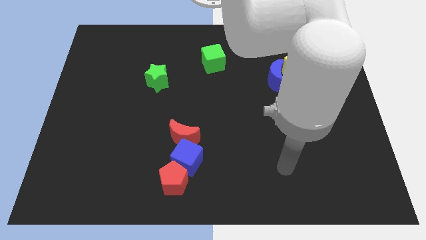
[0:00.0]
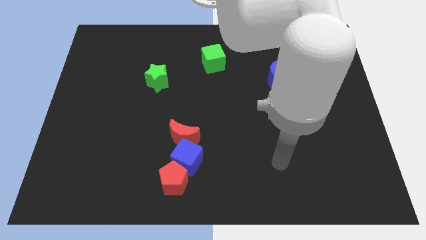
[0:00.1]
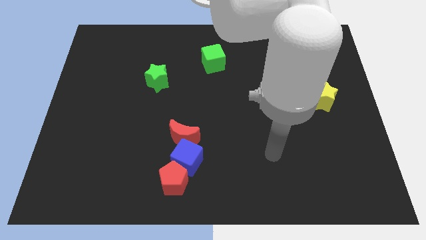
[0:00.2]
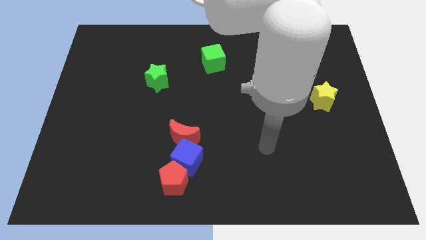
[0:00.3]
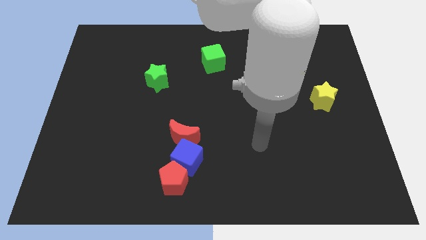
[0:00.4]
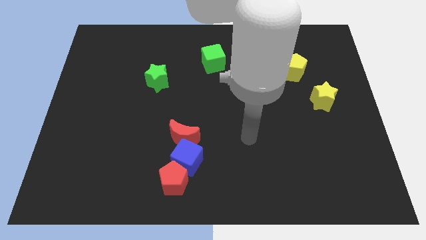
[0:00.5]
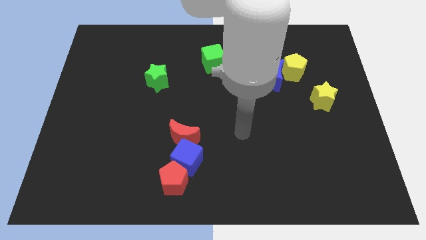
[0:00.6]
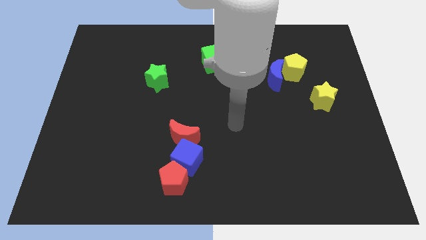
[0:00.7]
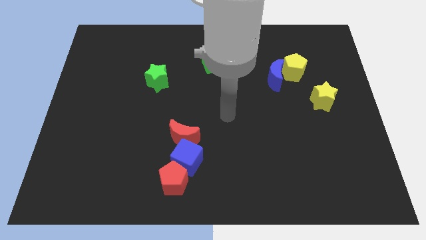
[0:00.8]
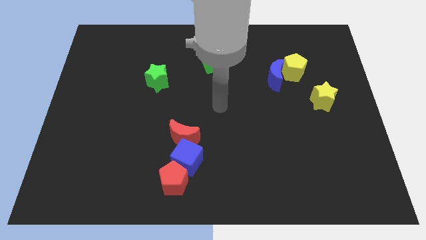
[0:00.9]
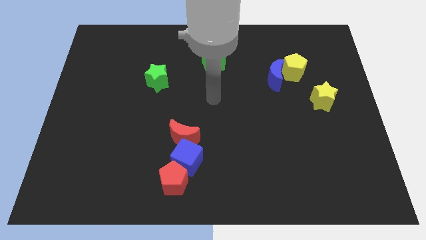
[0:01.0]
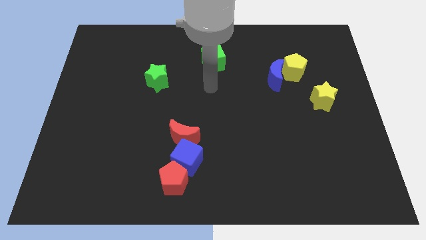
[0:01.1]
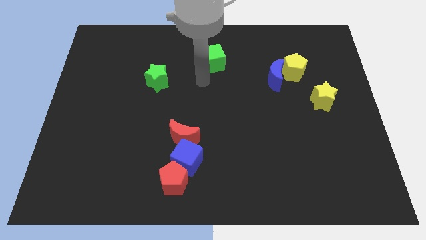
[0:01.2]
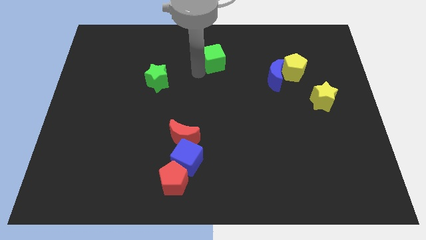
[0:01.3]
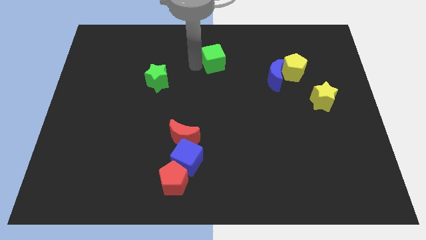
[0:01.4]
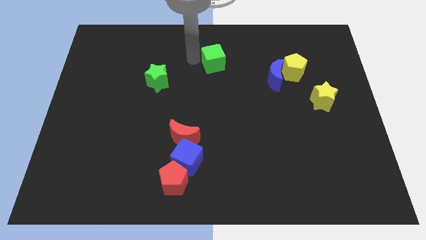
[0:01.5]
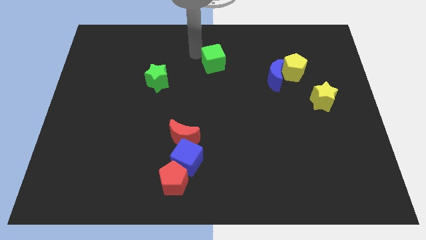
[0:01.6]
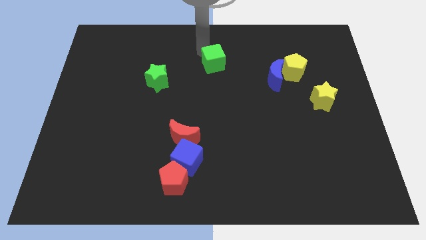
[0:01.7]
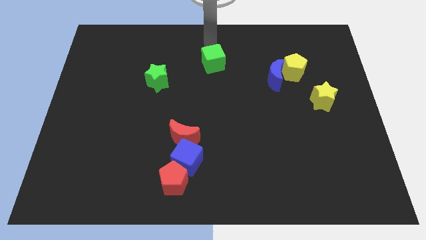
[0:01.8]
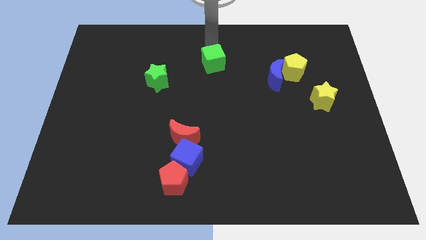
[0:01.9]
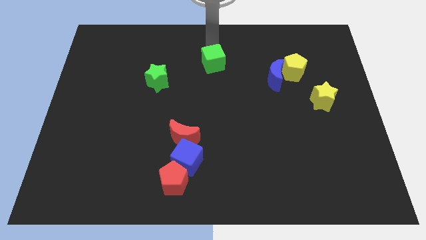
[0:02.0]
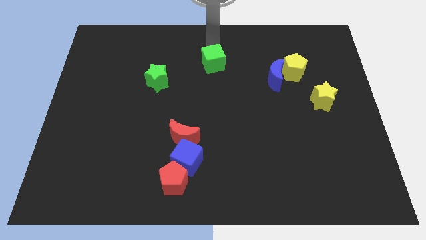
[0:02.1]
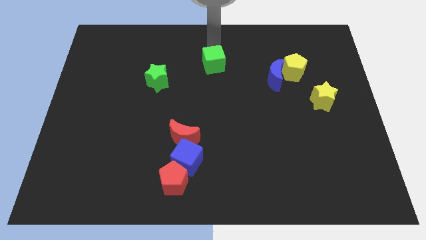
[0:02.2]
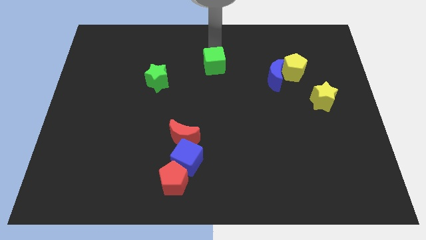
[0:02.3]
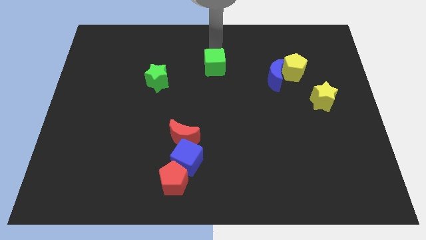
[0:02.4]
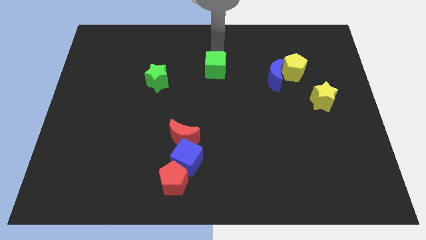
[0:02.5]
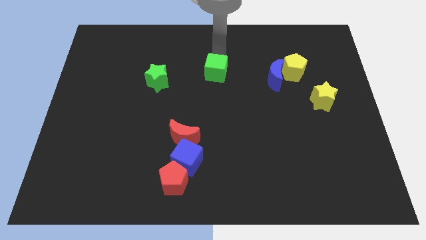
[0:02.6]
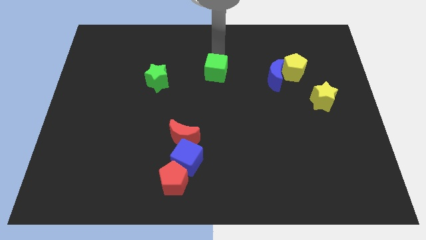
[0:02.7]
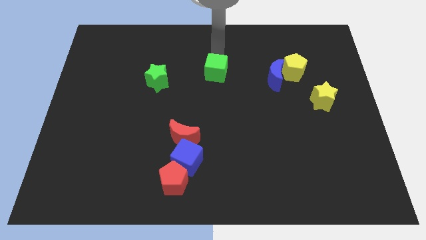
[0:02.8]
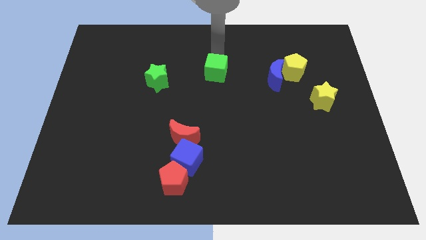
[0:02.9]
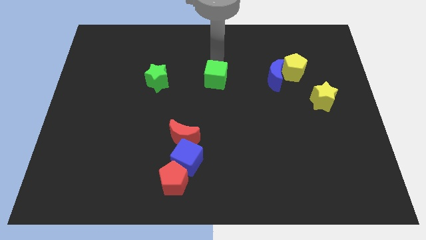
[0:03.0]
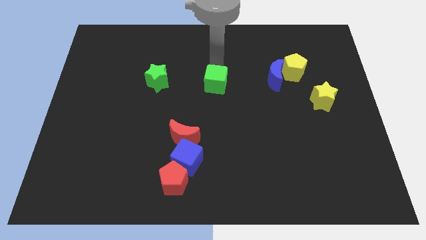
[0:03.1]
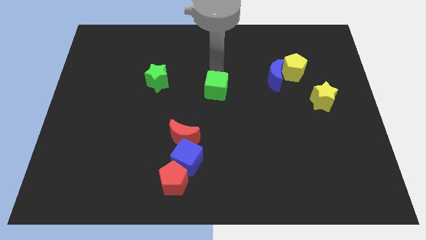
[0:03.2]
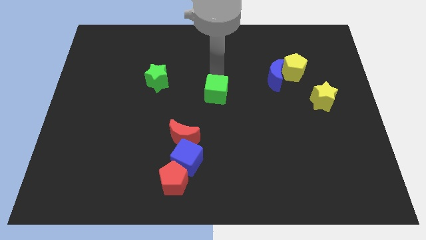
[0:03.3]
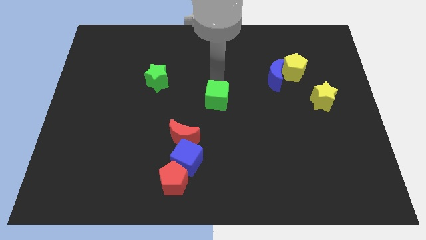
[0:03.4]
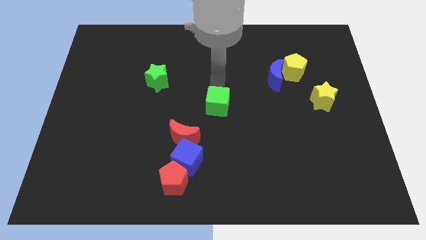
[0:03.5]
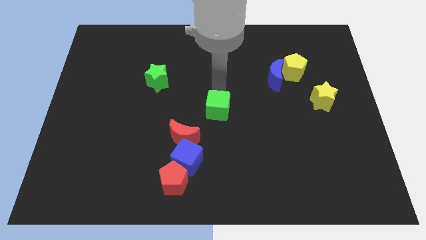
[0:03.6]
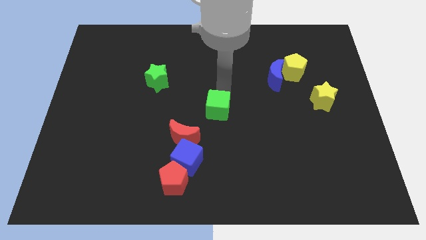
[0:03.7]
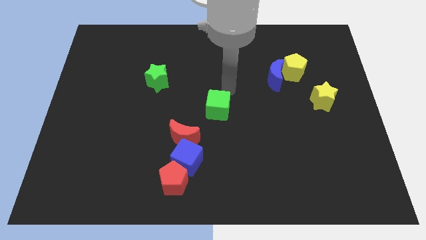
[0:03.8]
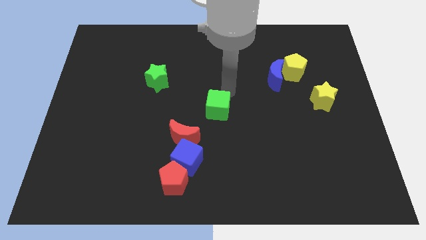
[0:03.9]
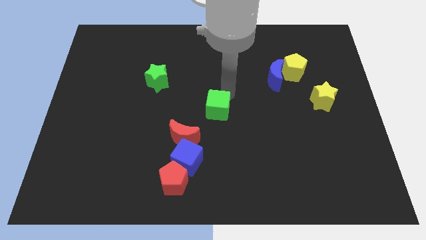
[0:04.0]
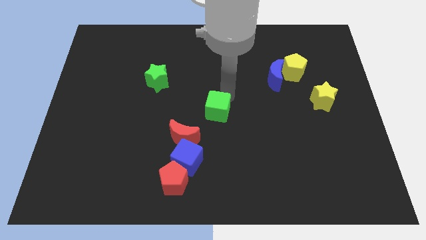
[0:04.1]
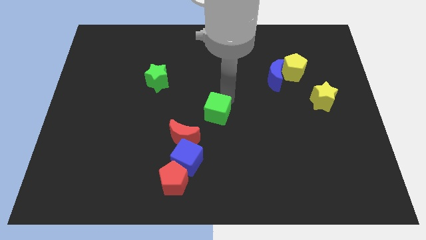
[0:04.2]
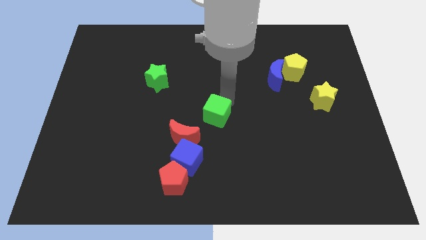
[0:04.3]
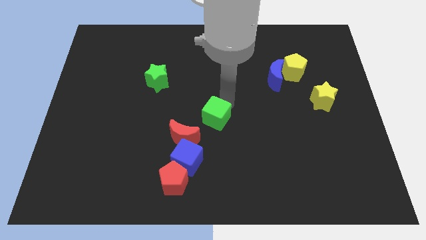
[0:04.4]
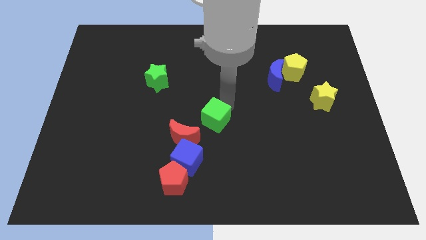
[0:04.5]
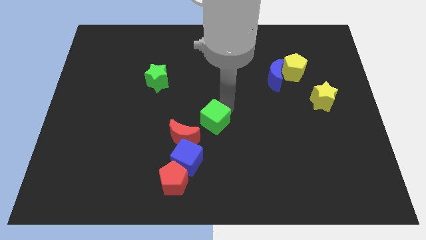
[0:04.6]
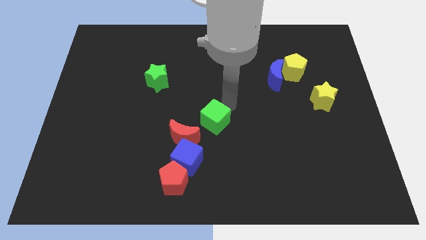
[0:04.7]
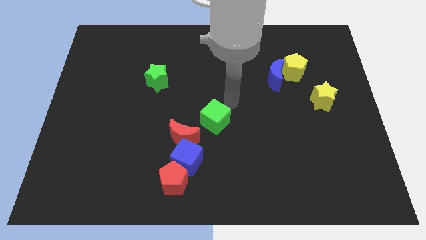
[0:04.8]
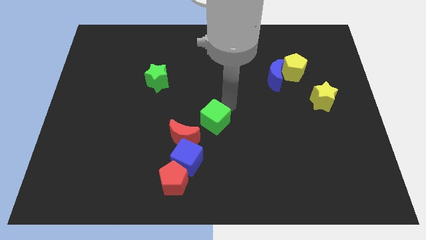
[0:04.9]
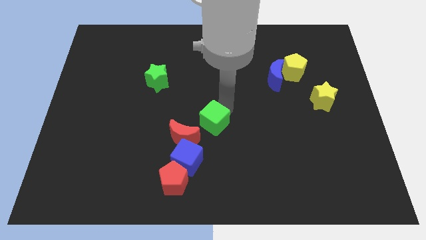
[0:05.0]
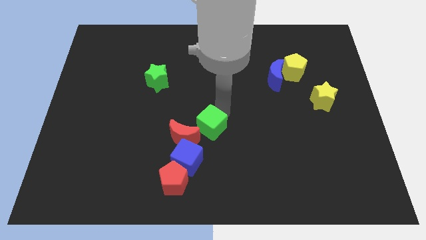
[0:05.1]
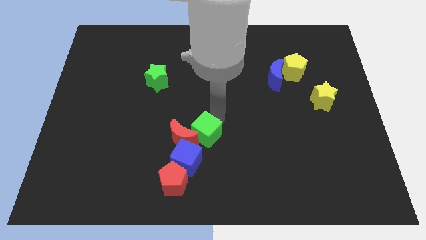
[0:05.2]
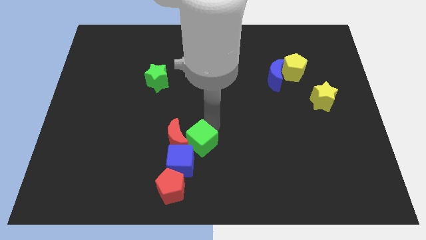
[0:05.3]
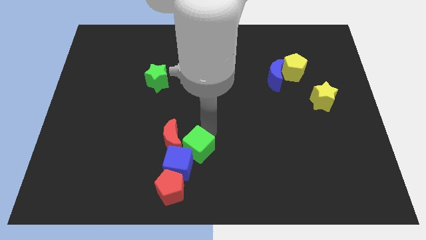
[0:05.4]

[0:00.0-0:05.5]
slide the green cube to the blue cube

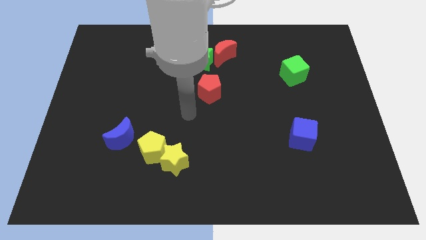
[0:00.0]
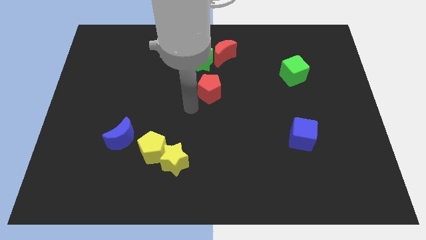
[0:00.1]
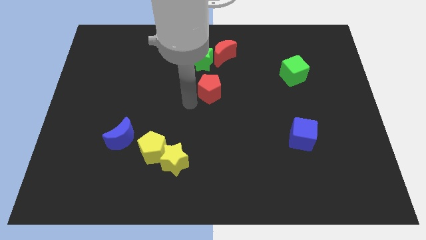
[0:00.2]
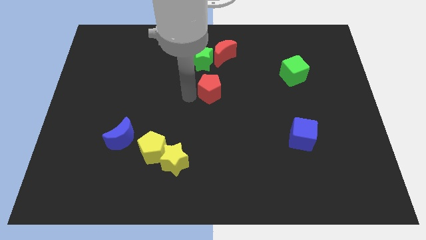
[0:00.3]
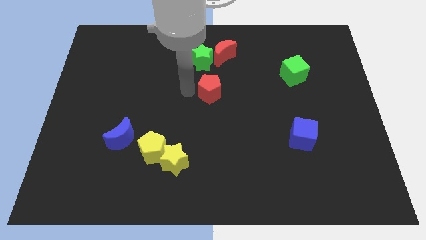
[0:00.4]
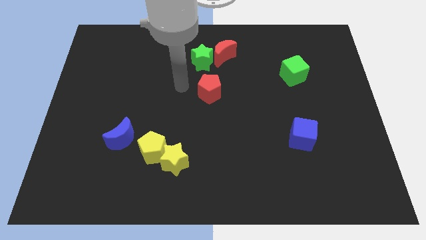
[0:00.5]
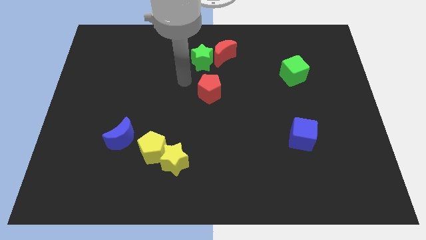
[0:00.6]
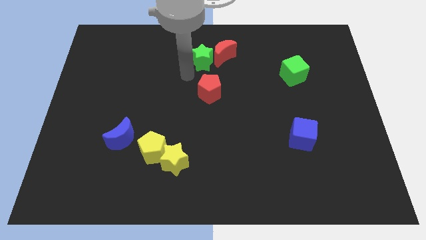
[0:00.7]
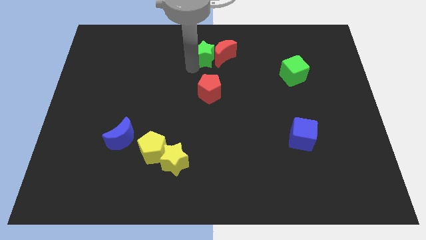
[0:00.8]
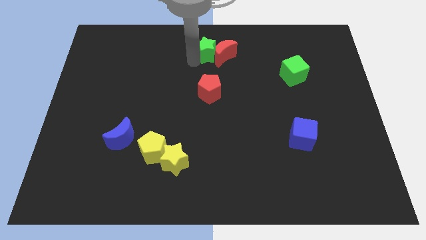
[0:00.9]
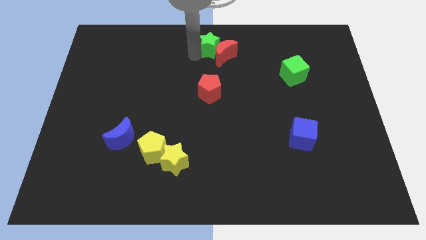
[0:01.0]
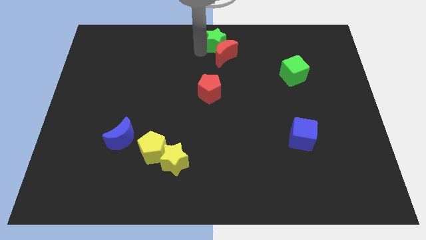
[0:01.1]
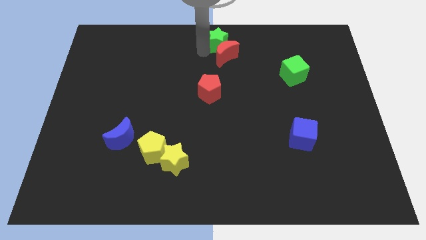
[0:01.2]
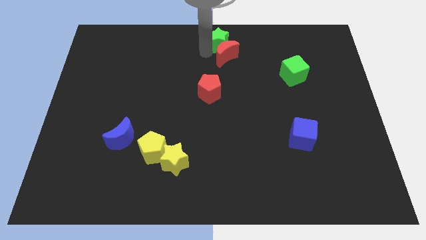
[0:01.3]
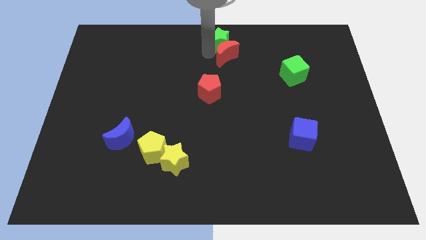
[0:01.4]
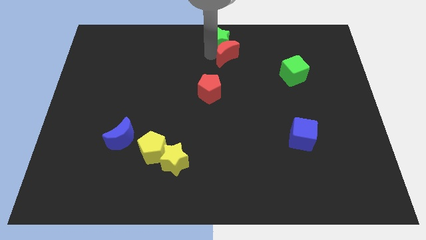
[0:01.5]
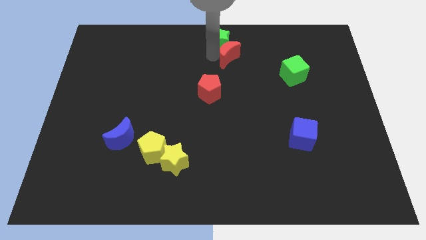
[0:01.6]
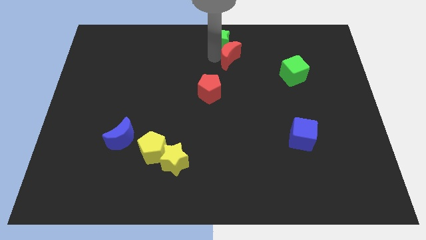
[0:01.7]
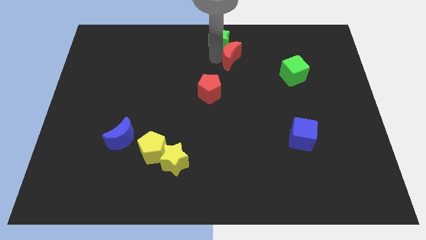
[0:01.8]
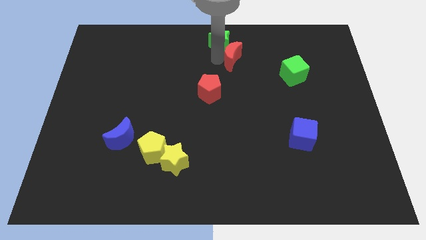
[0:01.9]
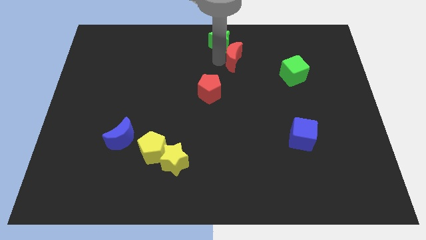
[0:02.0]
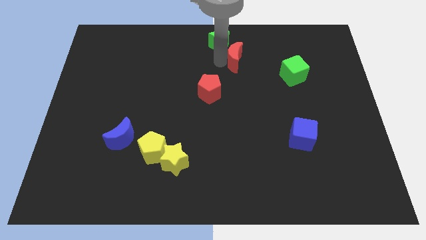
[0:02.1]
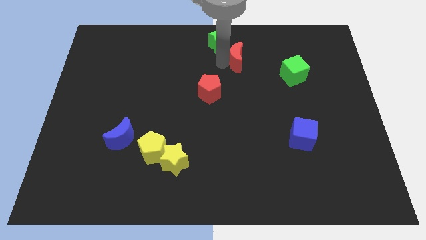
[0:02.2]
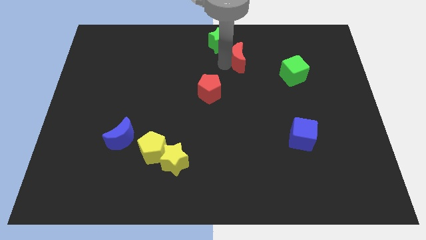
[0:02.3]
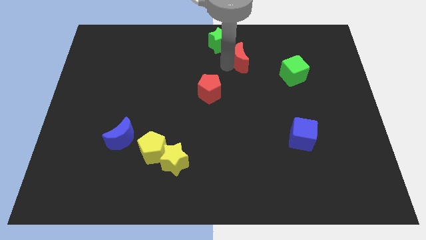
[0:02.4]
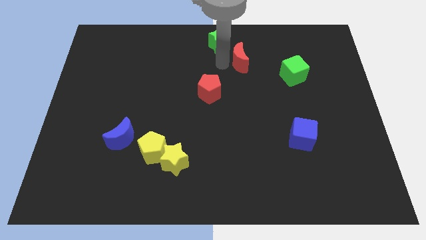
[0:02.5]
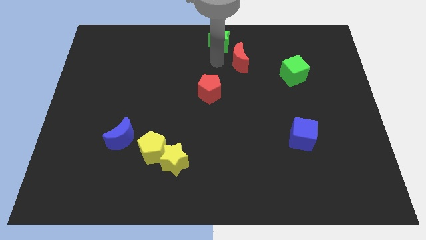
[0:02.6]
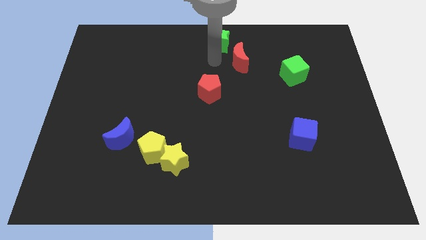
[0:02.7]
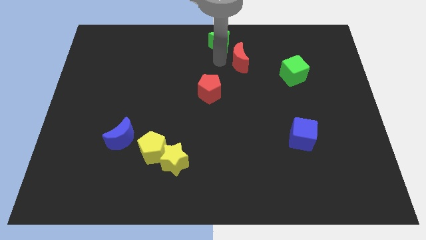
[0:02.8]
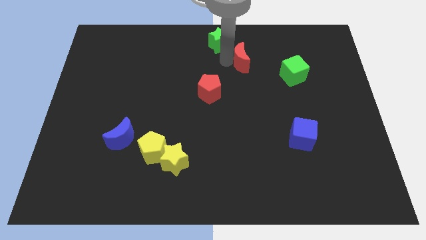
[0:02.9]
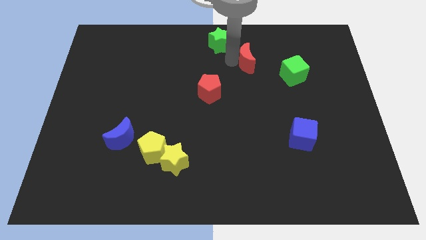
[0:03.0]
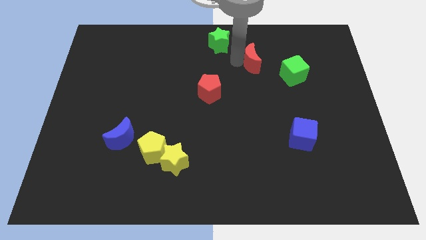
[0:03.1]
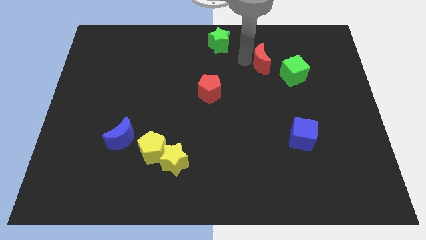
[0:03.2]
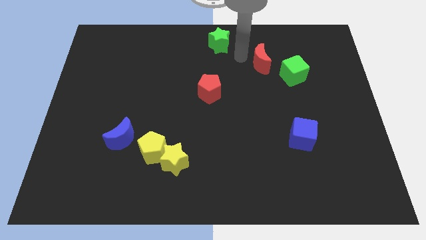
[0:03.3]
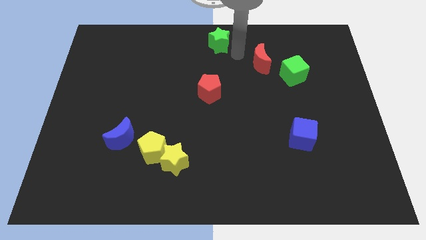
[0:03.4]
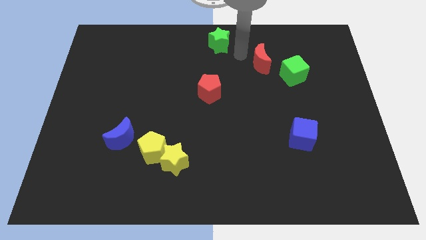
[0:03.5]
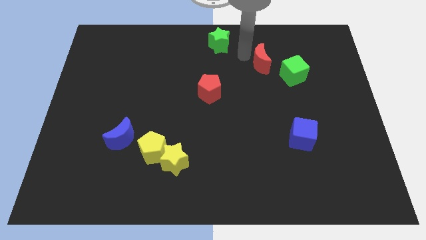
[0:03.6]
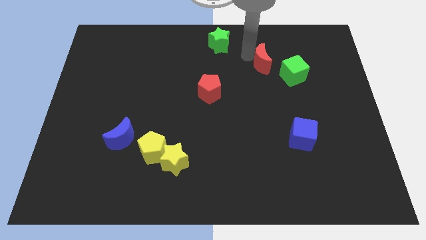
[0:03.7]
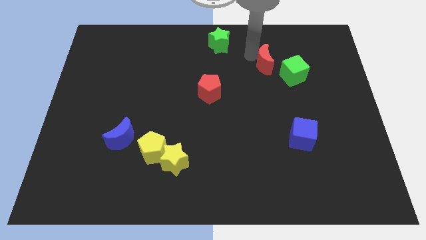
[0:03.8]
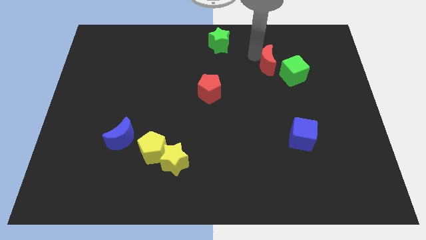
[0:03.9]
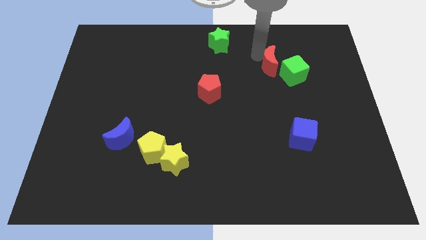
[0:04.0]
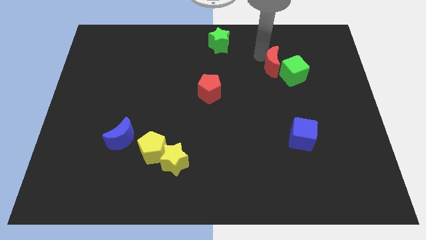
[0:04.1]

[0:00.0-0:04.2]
slide the red moon towards the green cube
